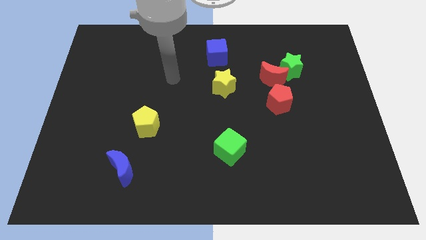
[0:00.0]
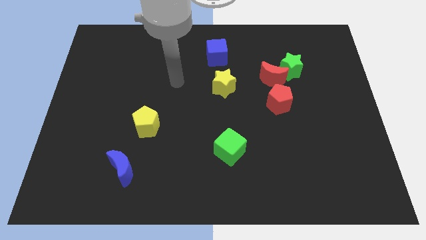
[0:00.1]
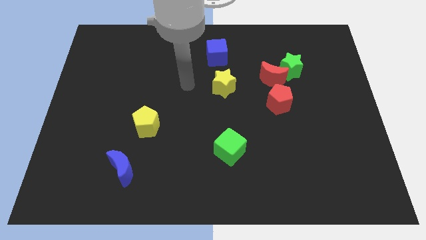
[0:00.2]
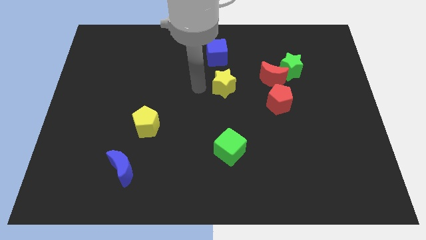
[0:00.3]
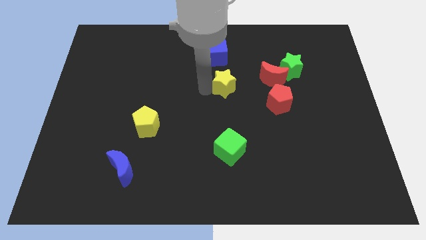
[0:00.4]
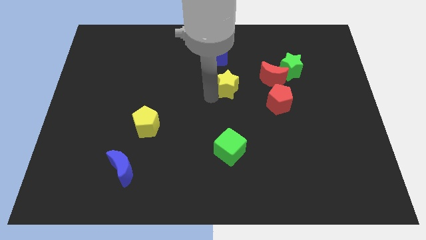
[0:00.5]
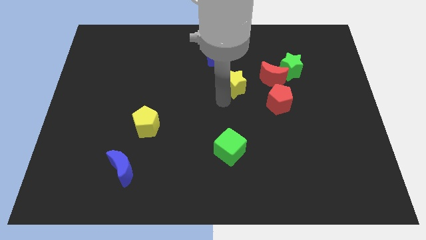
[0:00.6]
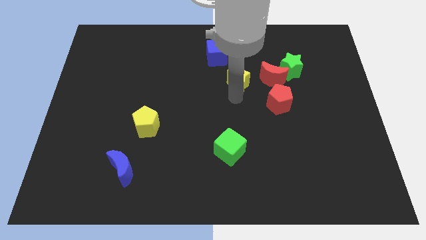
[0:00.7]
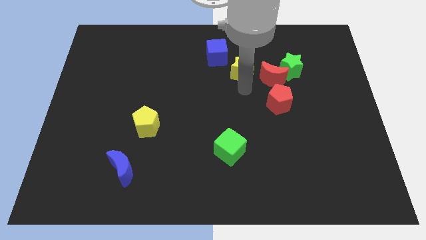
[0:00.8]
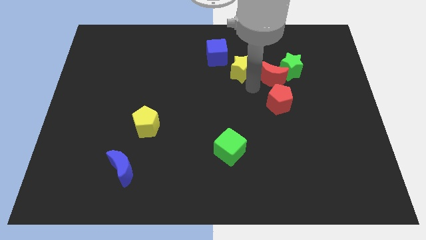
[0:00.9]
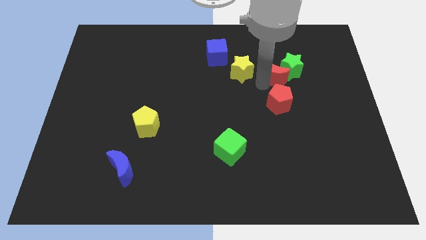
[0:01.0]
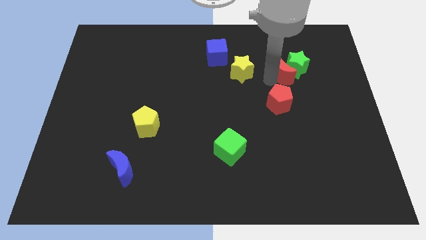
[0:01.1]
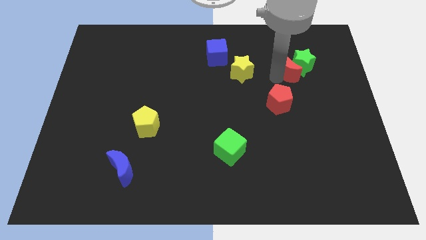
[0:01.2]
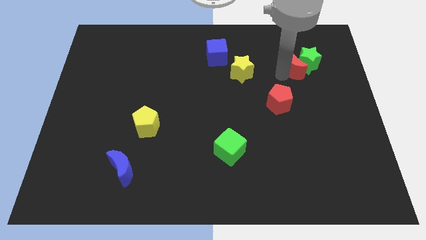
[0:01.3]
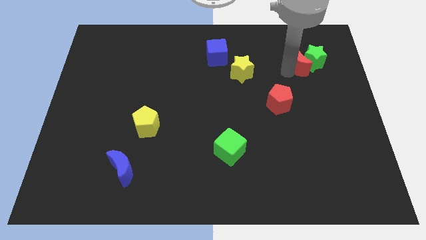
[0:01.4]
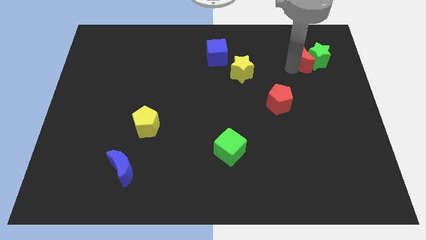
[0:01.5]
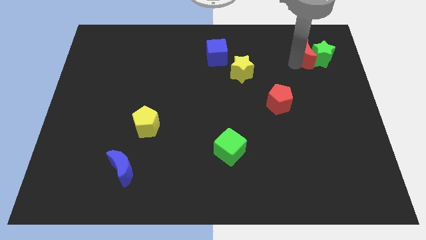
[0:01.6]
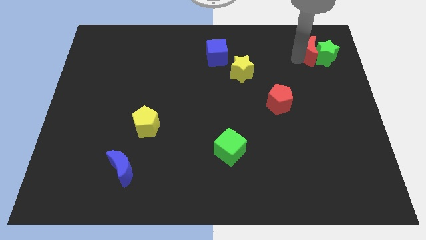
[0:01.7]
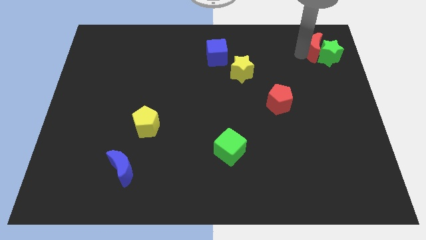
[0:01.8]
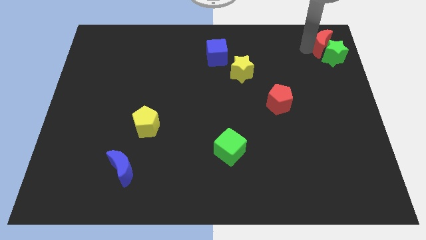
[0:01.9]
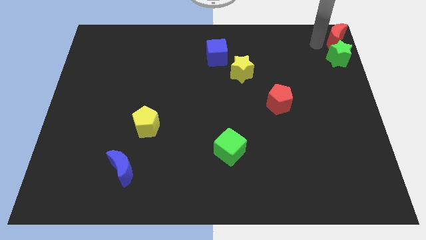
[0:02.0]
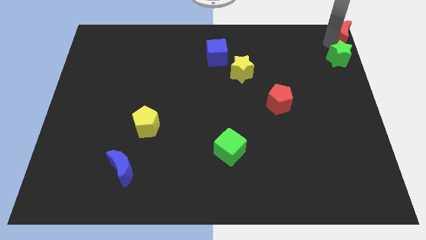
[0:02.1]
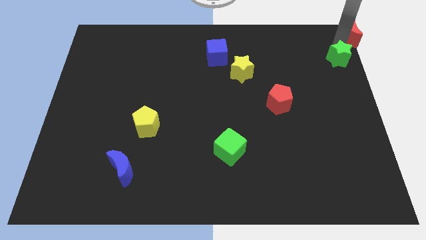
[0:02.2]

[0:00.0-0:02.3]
pull the green star apart from the red moon

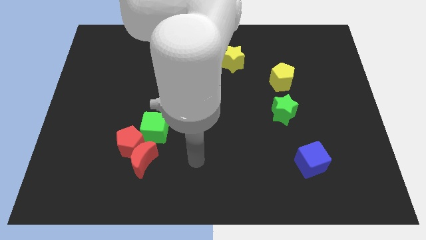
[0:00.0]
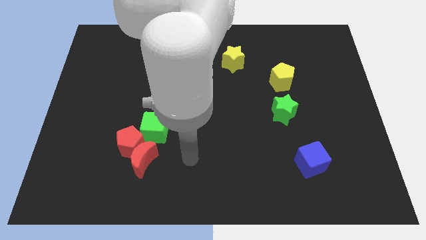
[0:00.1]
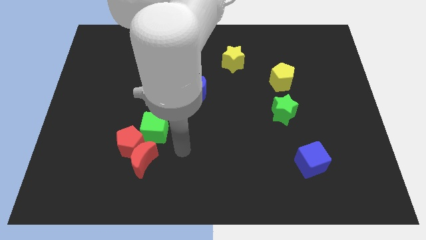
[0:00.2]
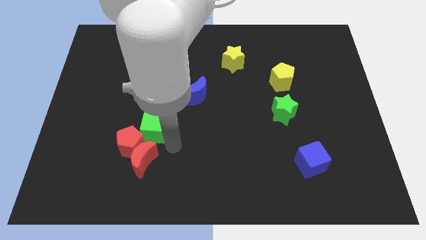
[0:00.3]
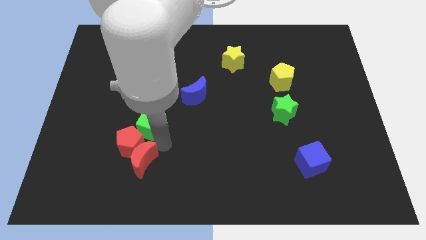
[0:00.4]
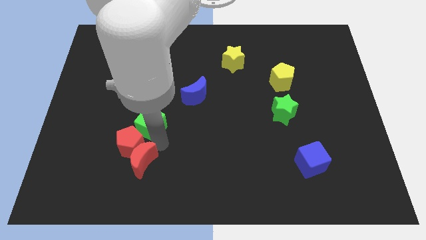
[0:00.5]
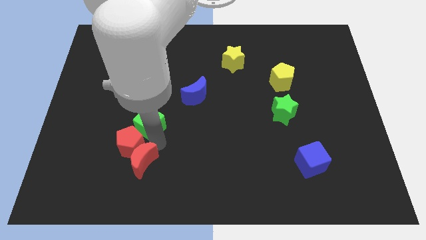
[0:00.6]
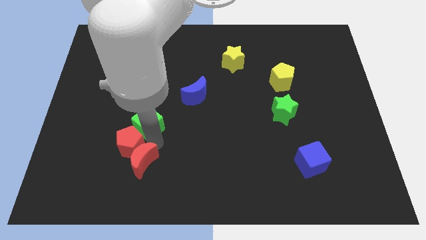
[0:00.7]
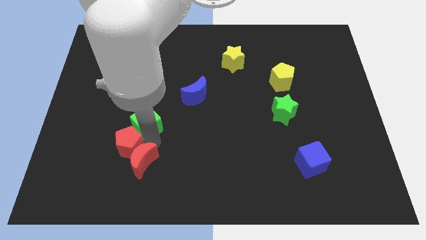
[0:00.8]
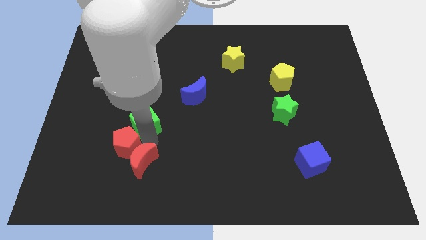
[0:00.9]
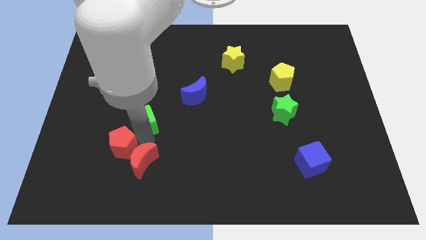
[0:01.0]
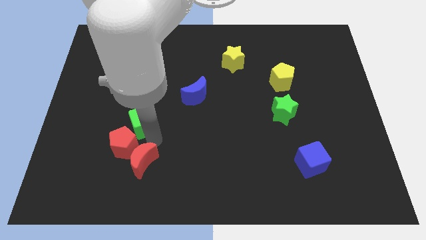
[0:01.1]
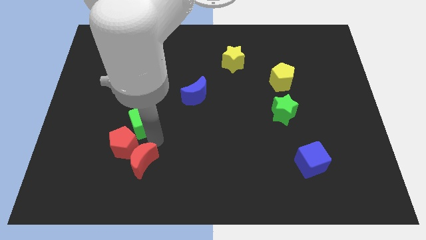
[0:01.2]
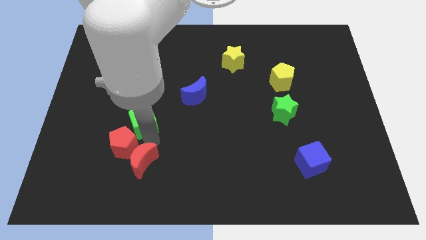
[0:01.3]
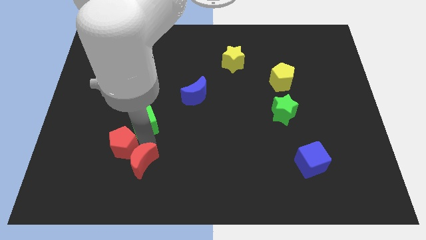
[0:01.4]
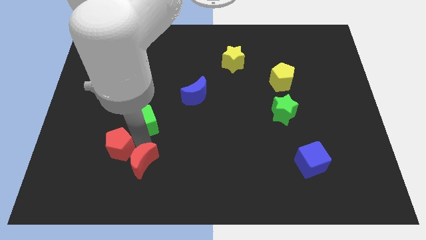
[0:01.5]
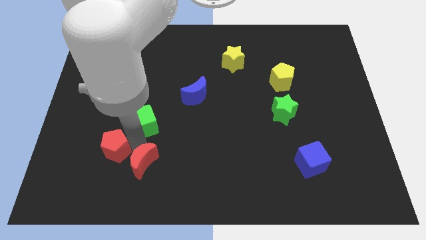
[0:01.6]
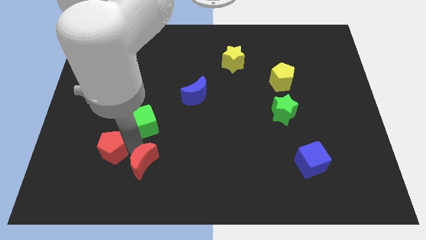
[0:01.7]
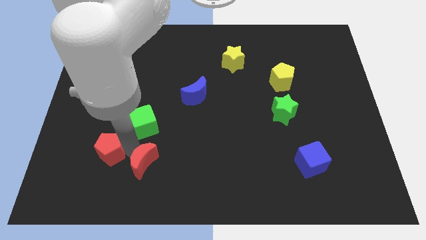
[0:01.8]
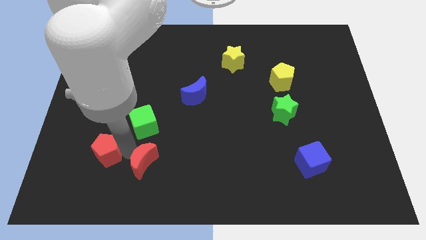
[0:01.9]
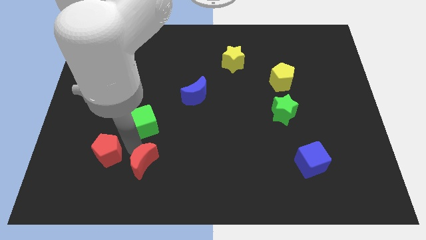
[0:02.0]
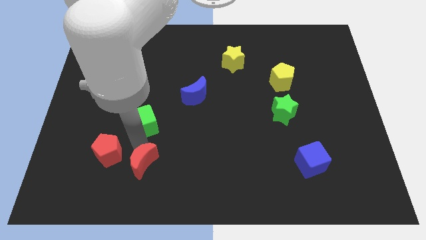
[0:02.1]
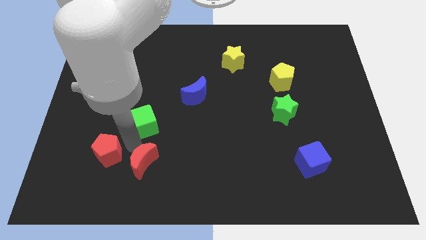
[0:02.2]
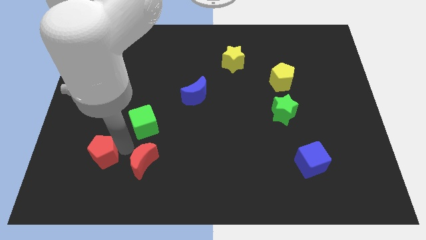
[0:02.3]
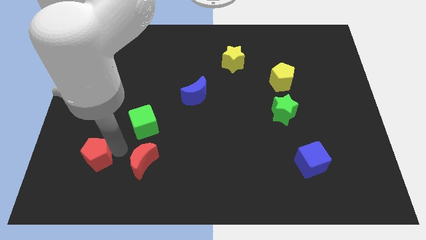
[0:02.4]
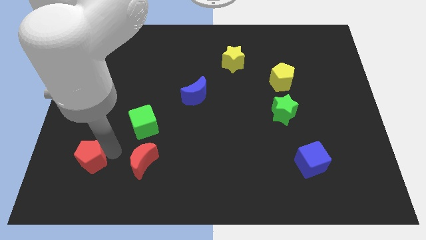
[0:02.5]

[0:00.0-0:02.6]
move the red pentagon away from the red moon and green cube

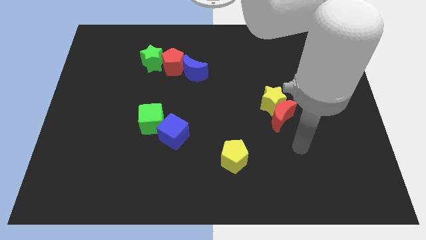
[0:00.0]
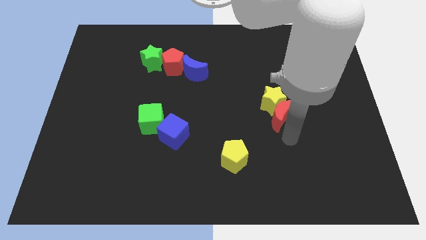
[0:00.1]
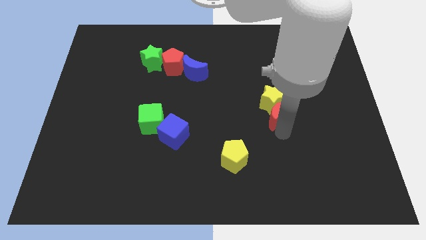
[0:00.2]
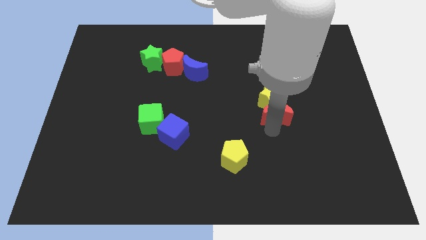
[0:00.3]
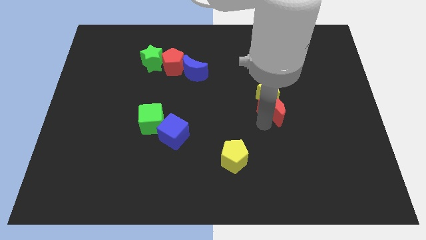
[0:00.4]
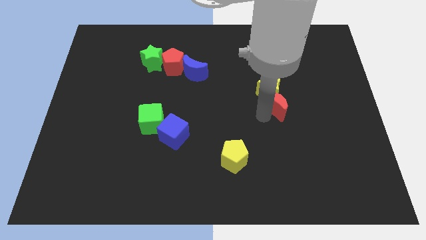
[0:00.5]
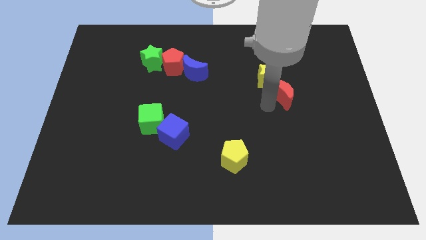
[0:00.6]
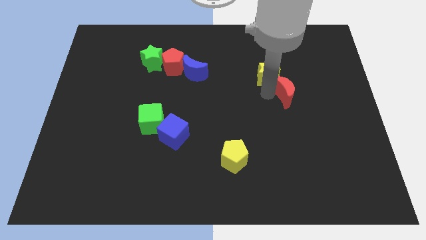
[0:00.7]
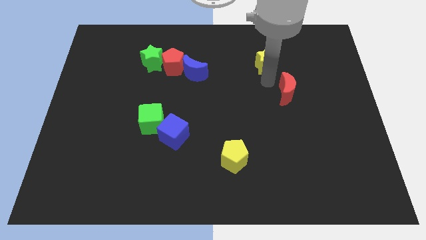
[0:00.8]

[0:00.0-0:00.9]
separate the red moon from the yellow star

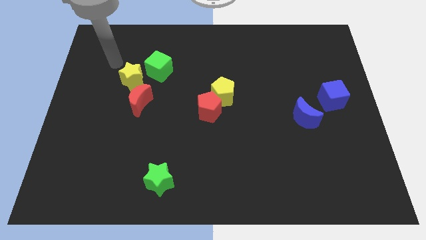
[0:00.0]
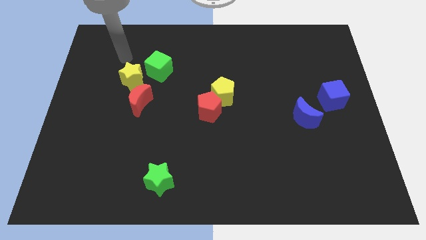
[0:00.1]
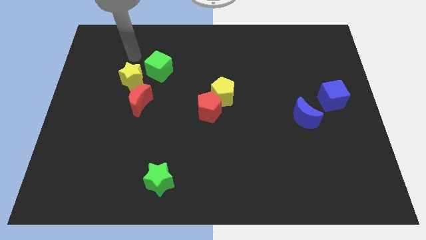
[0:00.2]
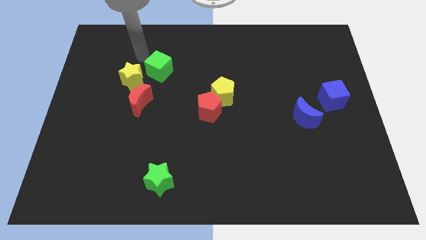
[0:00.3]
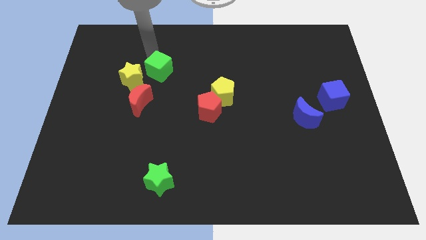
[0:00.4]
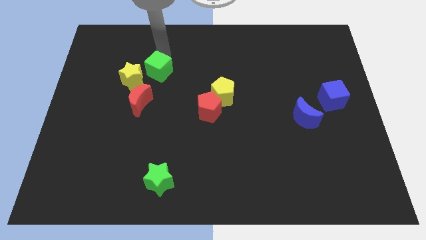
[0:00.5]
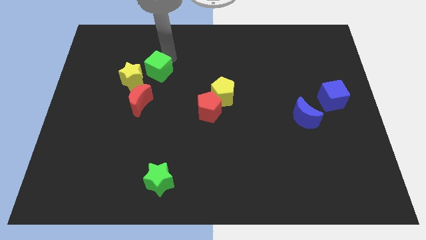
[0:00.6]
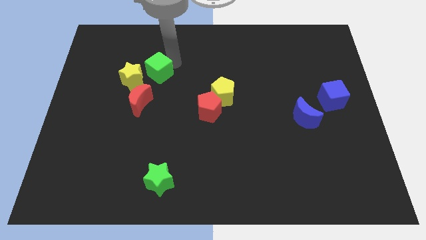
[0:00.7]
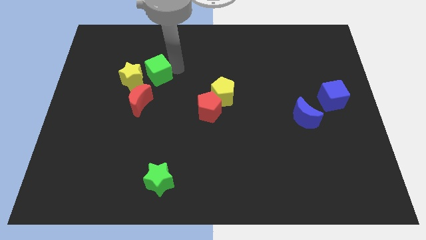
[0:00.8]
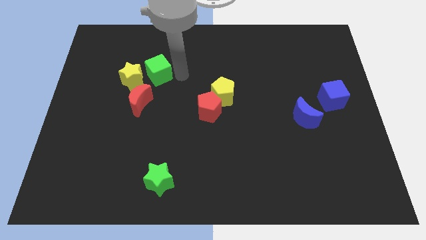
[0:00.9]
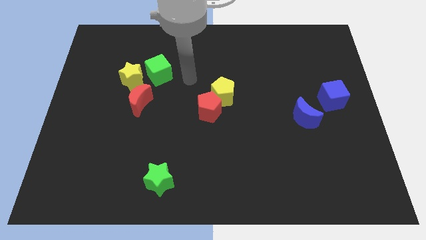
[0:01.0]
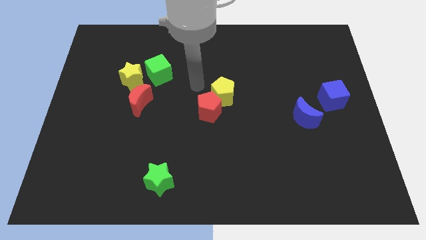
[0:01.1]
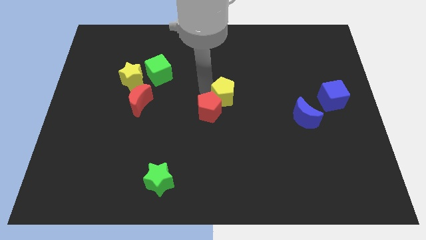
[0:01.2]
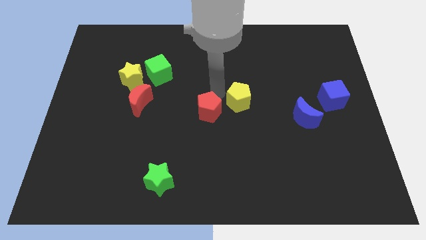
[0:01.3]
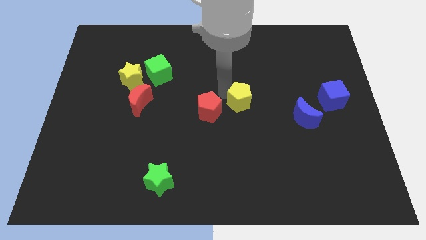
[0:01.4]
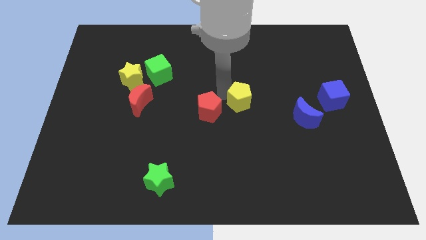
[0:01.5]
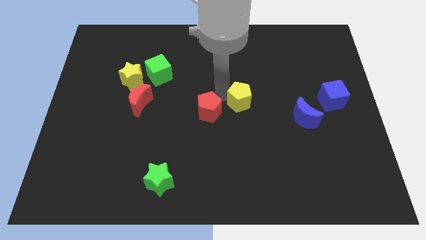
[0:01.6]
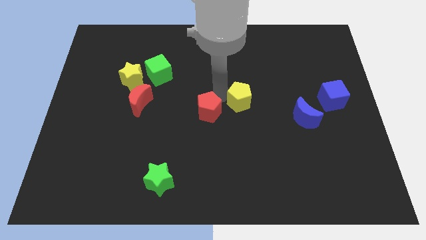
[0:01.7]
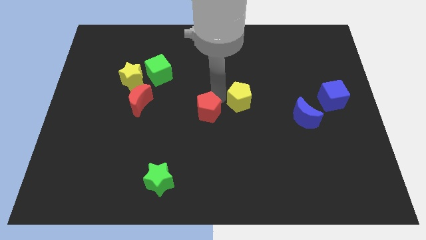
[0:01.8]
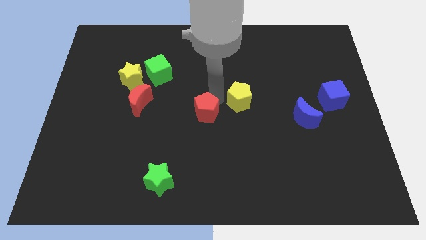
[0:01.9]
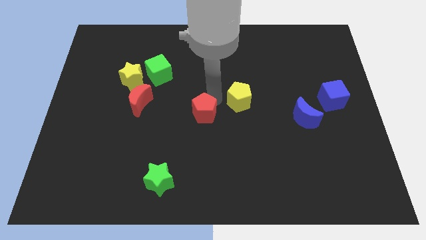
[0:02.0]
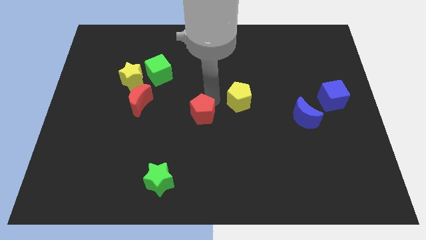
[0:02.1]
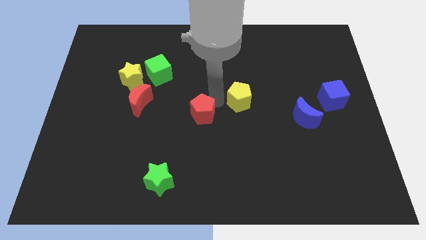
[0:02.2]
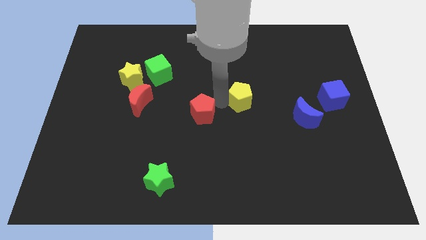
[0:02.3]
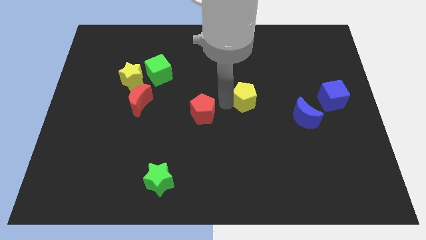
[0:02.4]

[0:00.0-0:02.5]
pull the red pentagon apart from the yellow pentagon

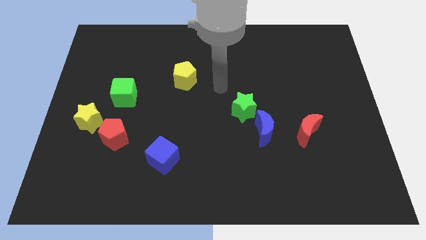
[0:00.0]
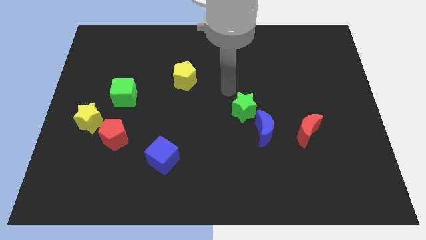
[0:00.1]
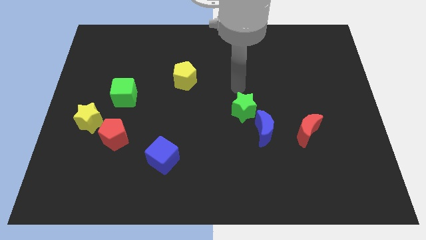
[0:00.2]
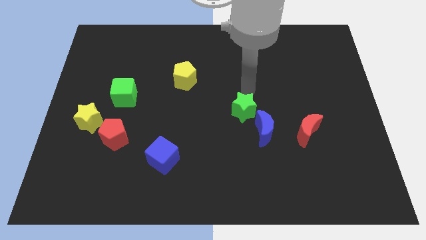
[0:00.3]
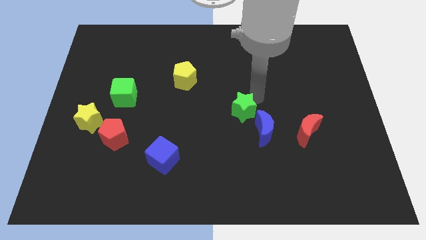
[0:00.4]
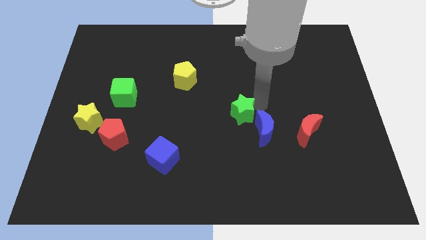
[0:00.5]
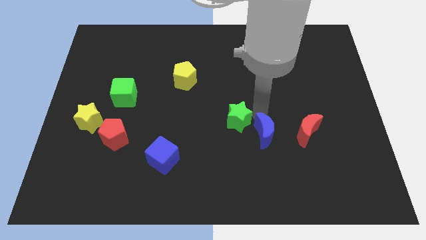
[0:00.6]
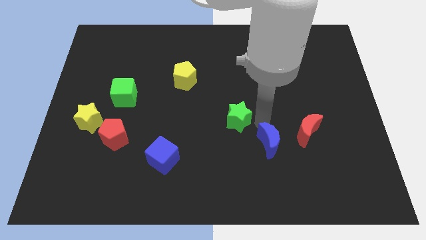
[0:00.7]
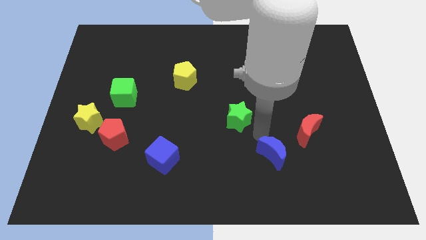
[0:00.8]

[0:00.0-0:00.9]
pull the green star apart from the blue moon
